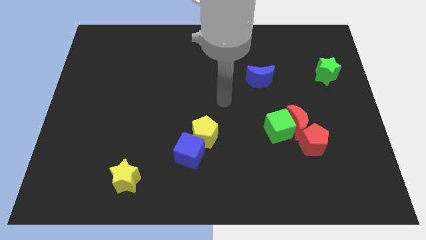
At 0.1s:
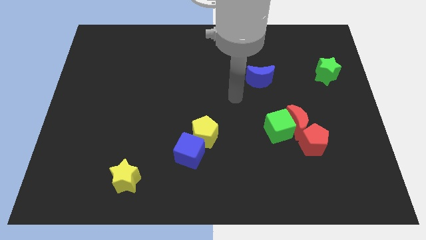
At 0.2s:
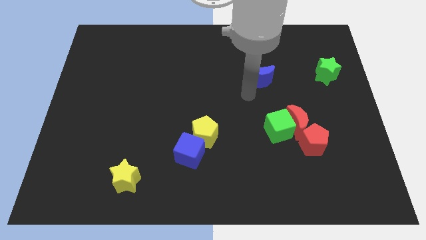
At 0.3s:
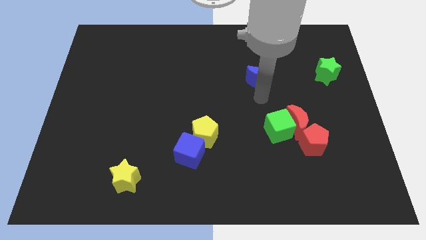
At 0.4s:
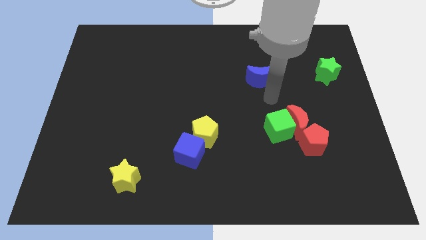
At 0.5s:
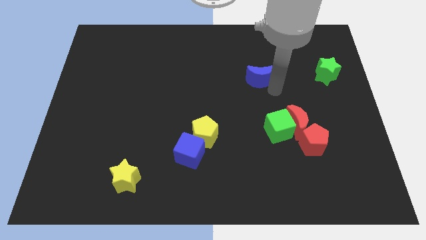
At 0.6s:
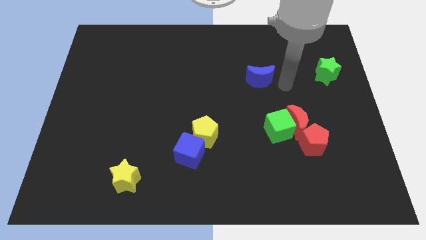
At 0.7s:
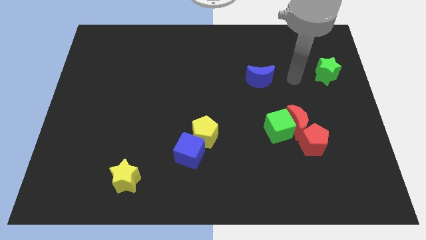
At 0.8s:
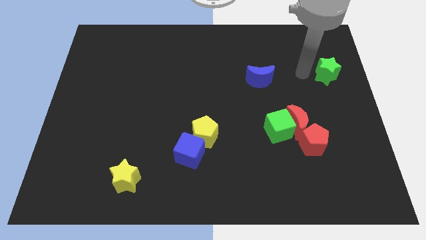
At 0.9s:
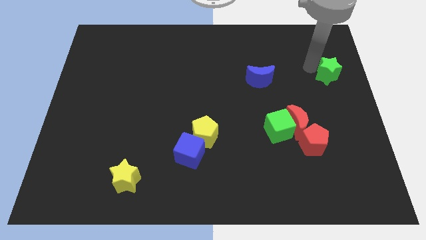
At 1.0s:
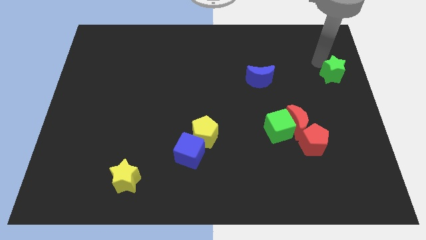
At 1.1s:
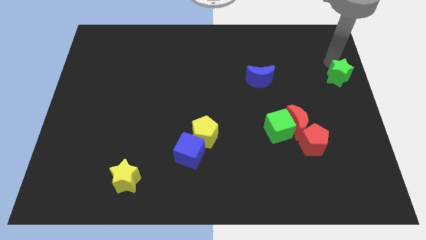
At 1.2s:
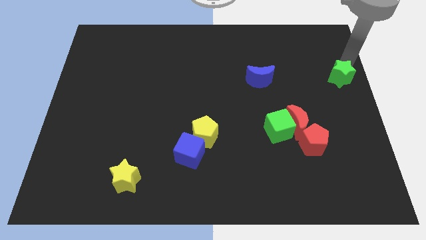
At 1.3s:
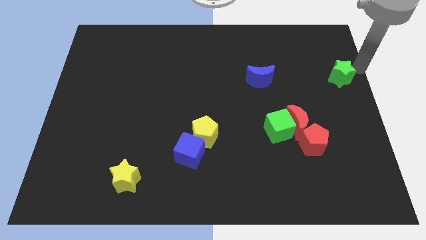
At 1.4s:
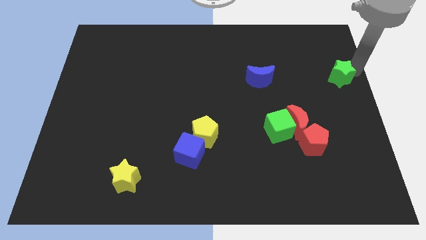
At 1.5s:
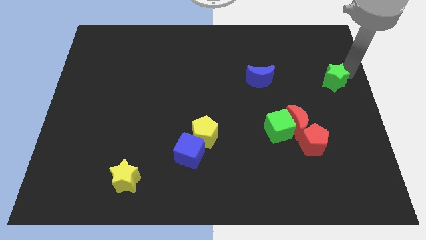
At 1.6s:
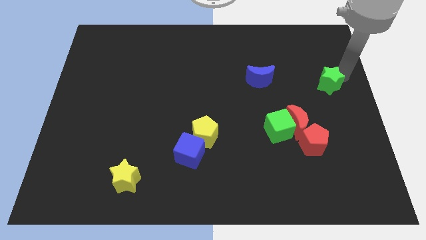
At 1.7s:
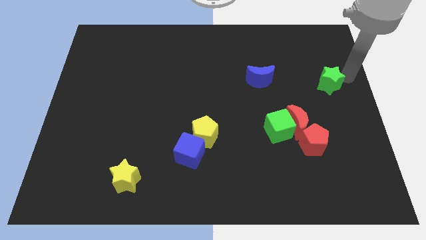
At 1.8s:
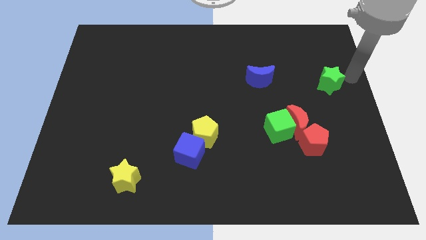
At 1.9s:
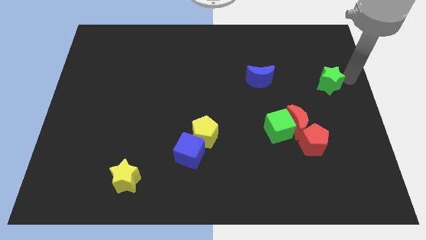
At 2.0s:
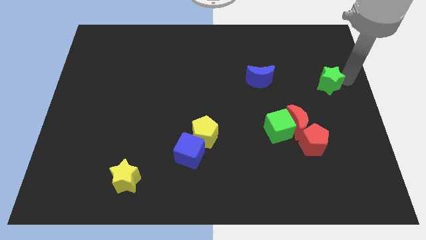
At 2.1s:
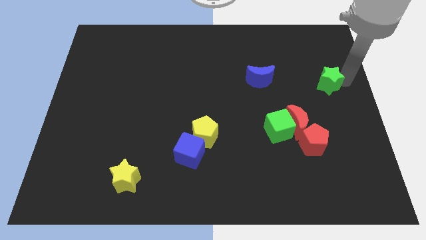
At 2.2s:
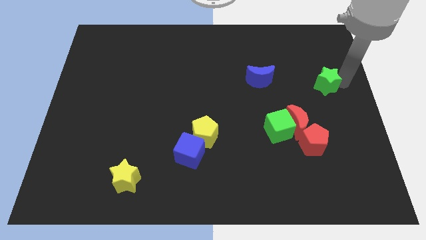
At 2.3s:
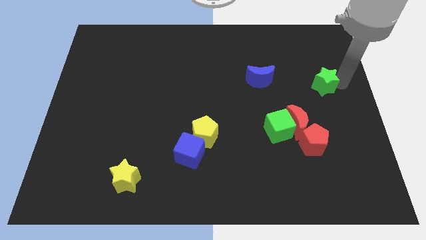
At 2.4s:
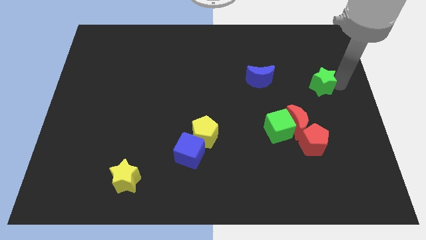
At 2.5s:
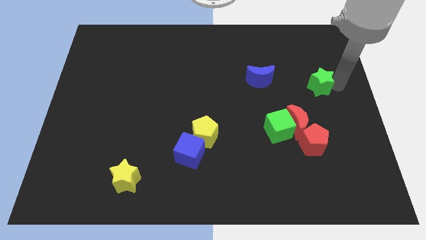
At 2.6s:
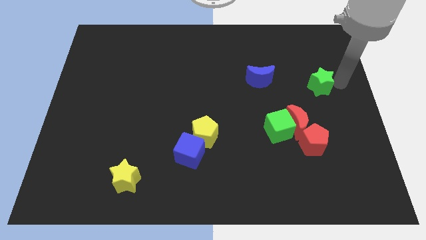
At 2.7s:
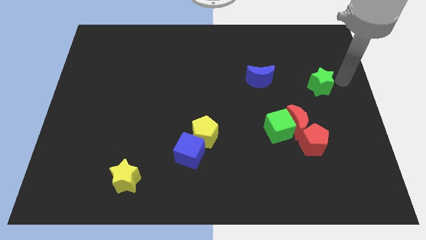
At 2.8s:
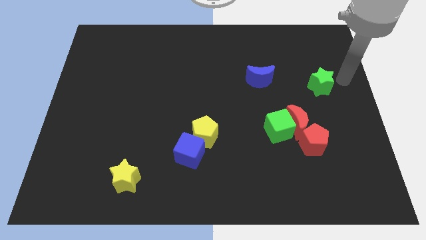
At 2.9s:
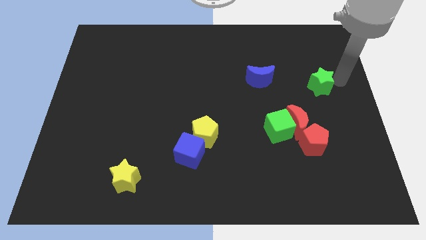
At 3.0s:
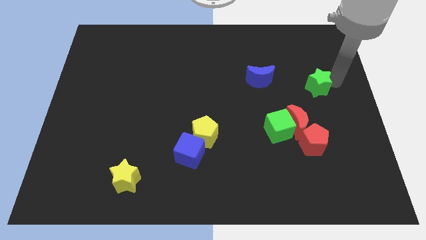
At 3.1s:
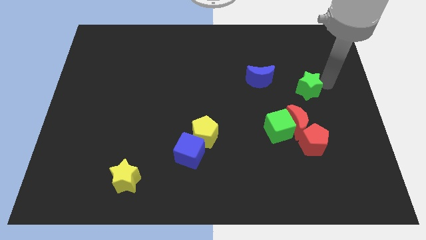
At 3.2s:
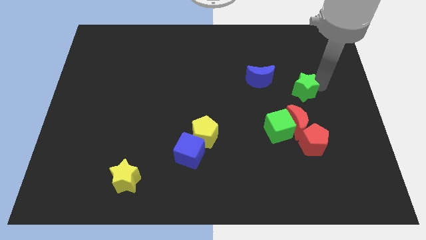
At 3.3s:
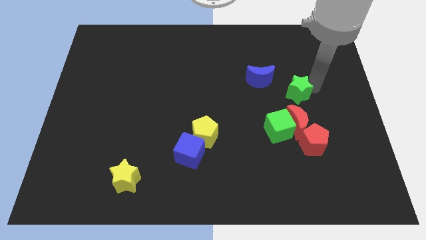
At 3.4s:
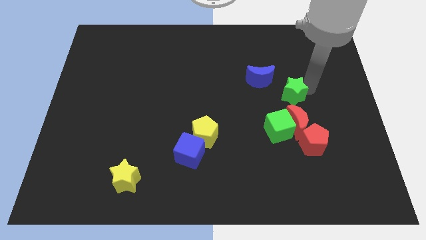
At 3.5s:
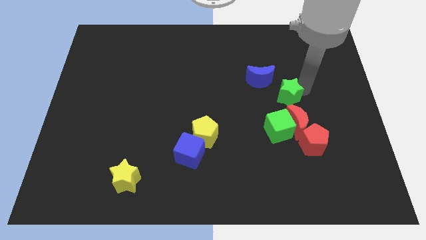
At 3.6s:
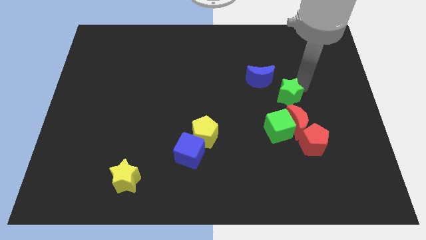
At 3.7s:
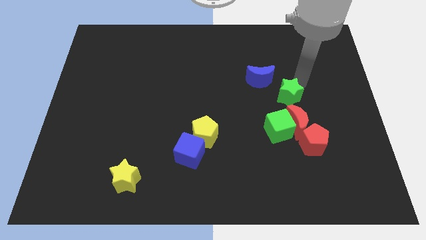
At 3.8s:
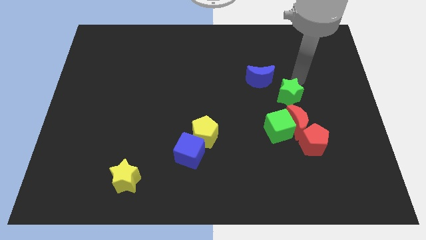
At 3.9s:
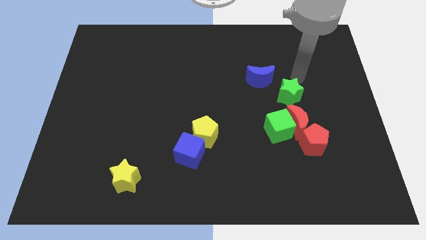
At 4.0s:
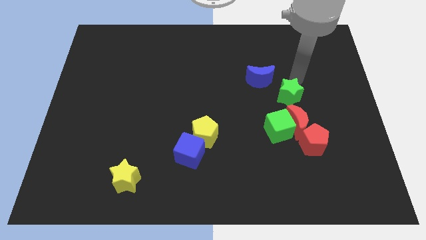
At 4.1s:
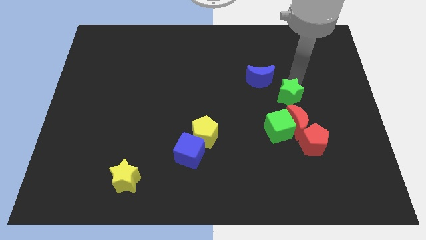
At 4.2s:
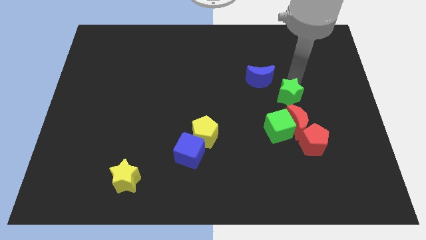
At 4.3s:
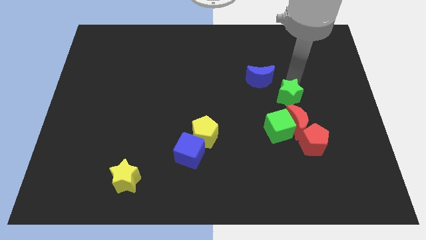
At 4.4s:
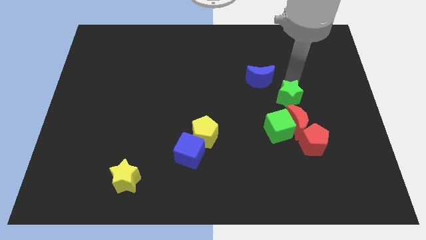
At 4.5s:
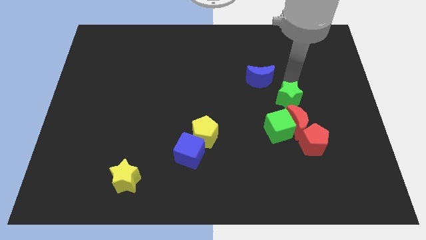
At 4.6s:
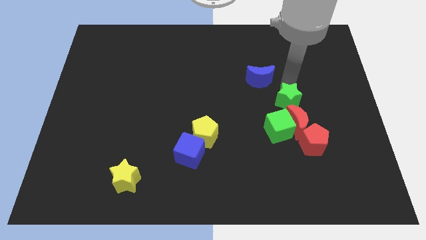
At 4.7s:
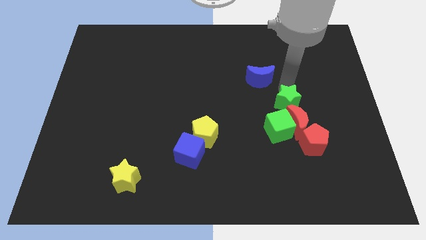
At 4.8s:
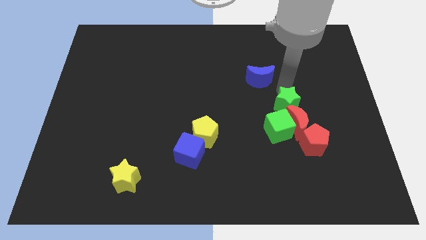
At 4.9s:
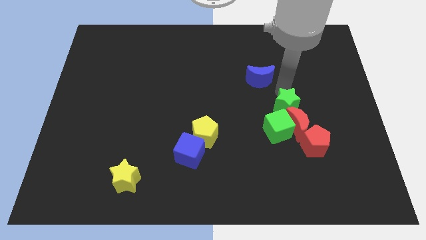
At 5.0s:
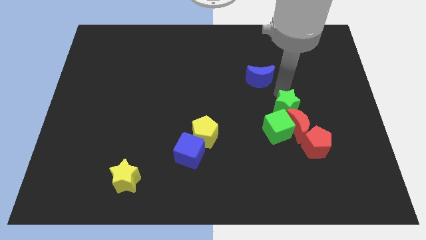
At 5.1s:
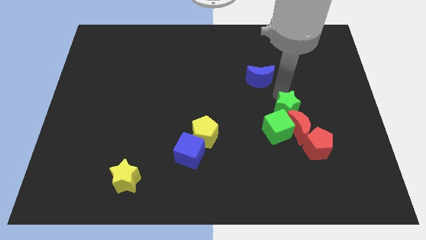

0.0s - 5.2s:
put the green star diagonally up and to the left of the red pentagon

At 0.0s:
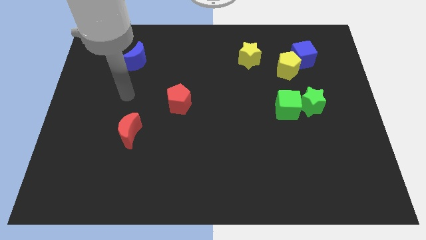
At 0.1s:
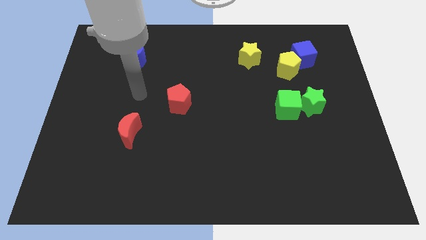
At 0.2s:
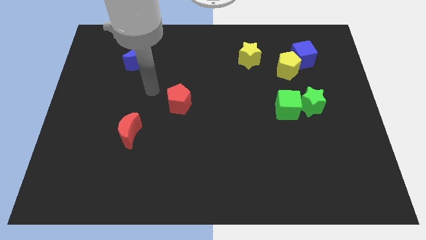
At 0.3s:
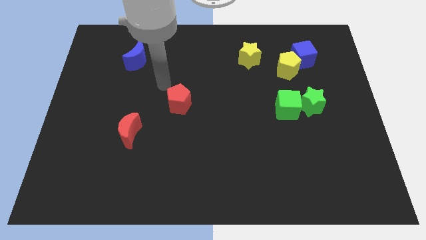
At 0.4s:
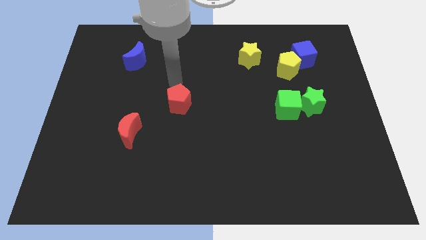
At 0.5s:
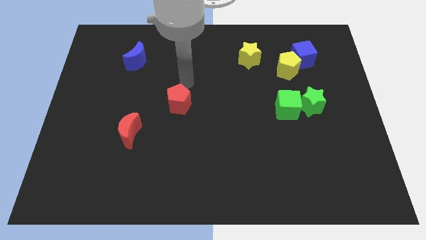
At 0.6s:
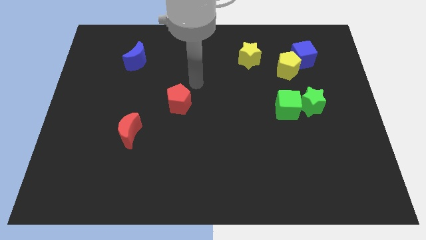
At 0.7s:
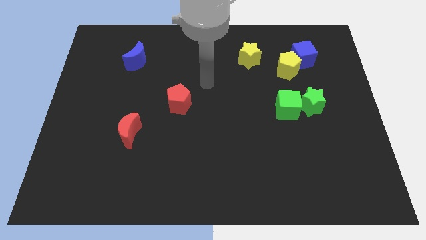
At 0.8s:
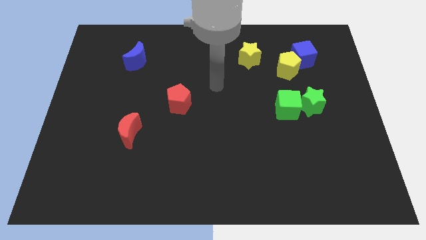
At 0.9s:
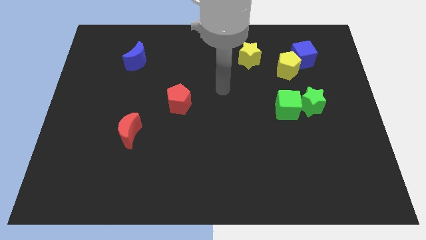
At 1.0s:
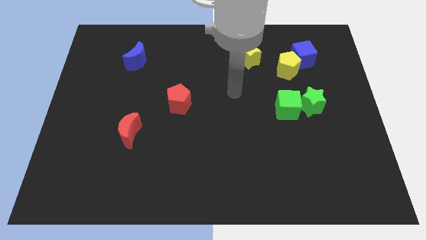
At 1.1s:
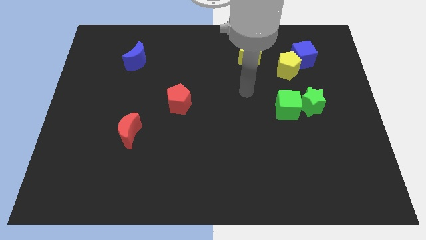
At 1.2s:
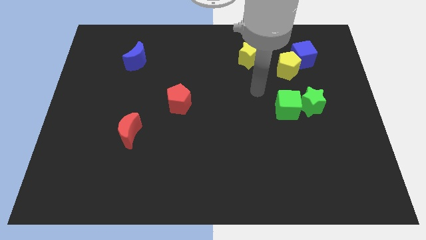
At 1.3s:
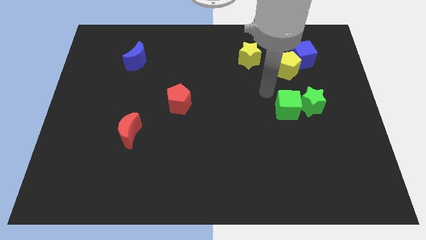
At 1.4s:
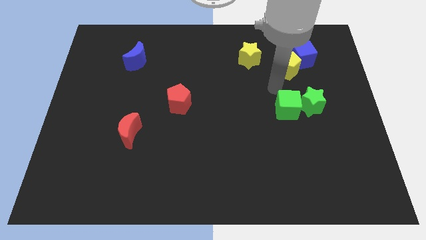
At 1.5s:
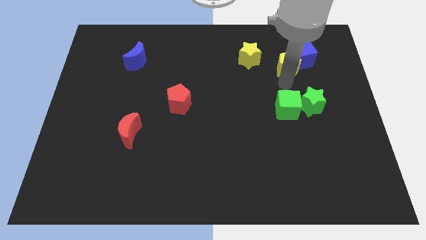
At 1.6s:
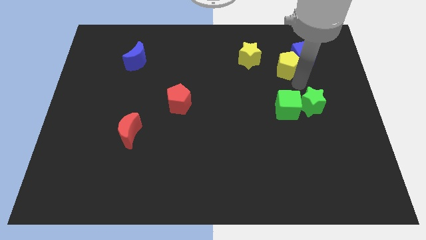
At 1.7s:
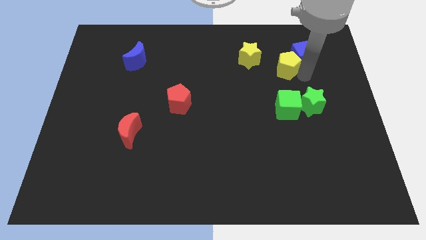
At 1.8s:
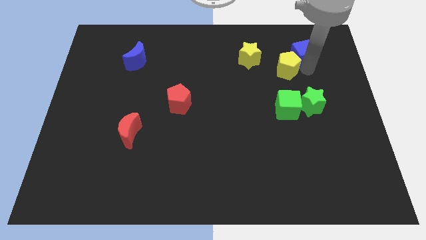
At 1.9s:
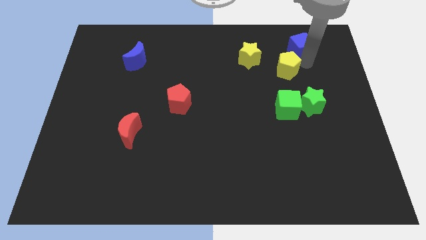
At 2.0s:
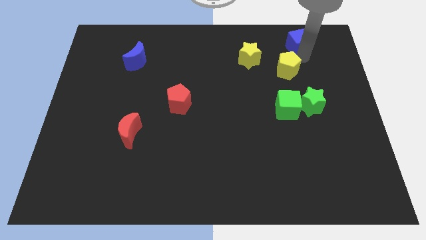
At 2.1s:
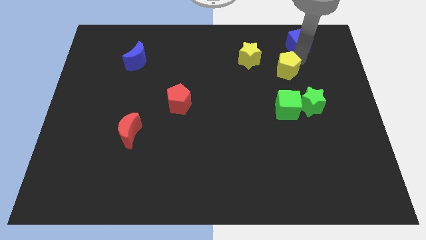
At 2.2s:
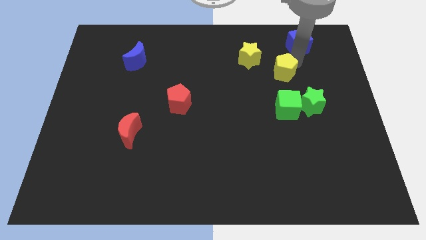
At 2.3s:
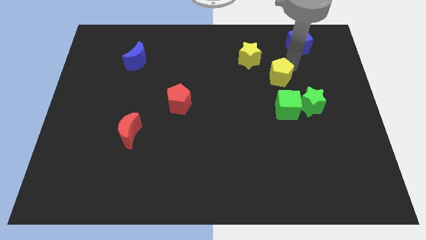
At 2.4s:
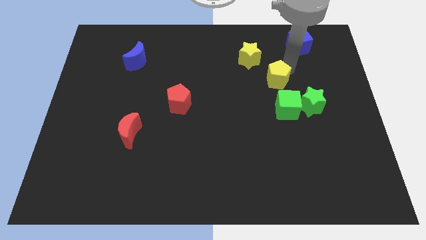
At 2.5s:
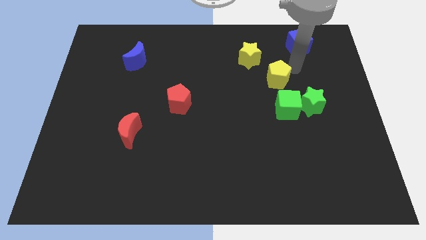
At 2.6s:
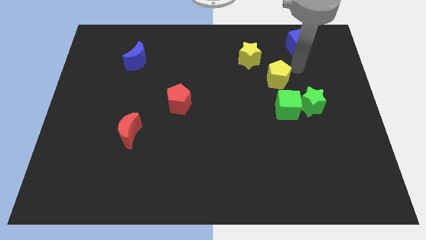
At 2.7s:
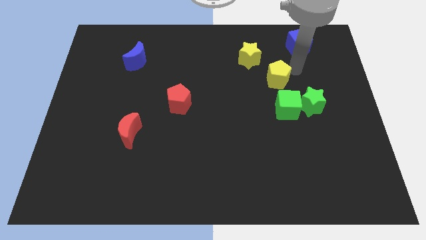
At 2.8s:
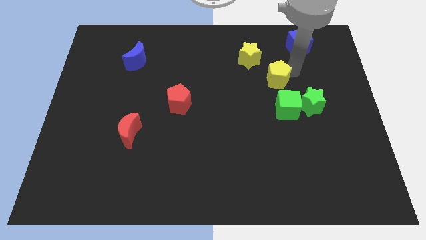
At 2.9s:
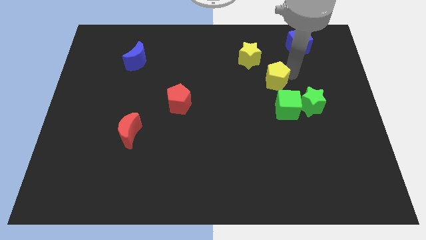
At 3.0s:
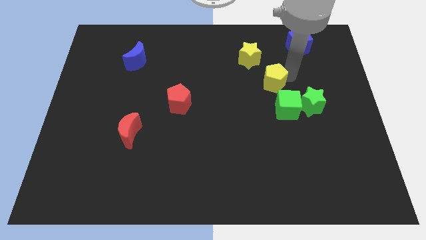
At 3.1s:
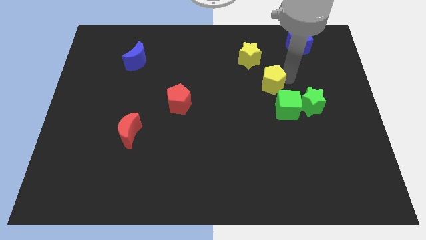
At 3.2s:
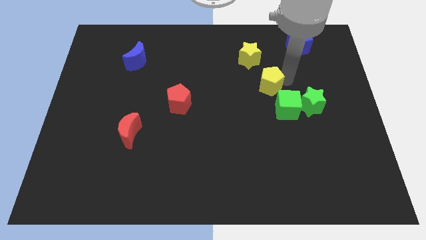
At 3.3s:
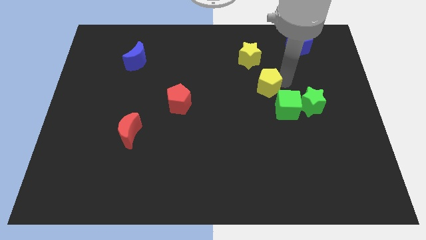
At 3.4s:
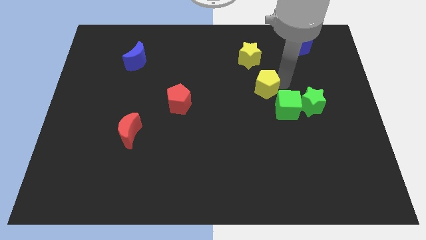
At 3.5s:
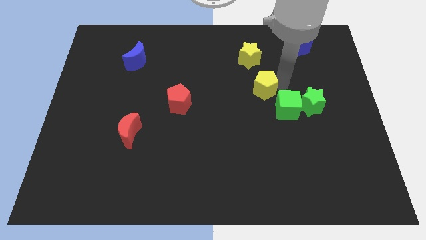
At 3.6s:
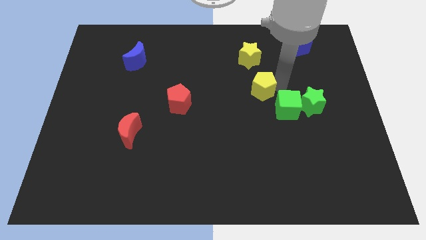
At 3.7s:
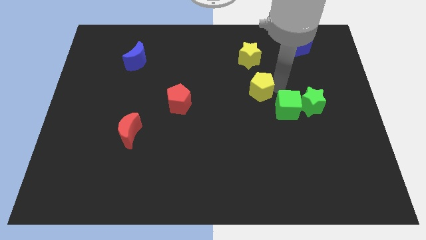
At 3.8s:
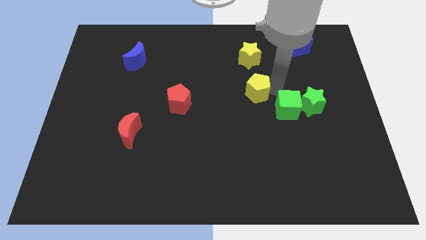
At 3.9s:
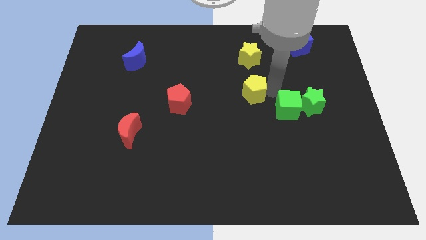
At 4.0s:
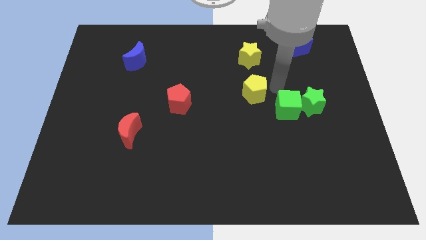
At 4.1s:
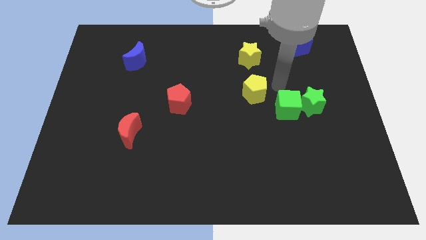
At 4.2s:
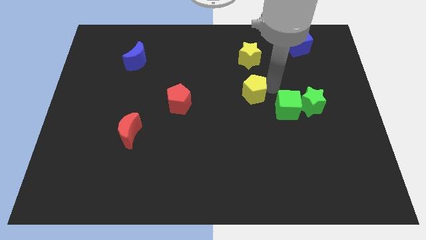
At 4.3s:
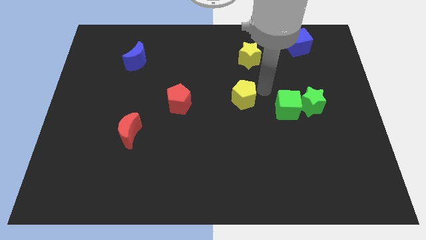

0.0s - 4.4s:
put the yellow pentagon to the right side of the red pentagon
